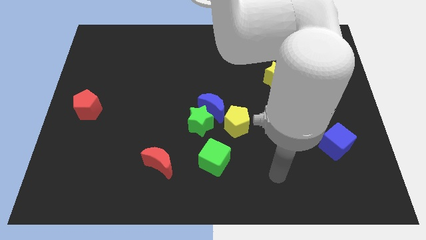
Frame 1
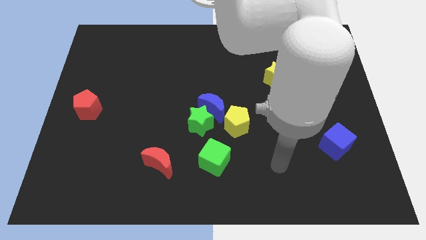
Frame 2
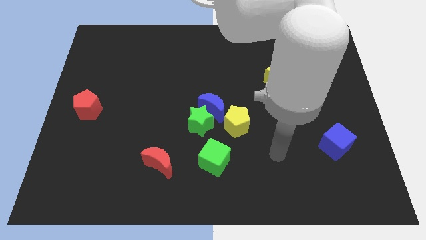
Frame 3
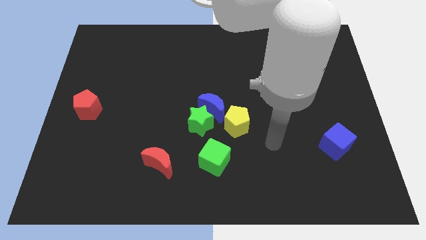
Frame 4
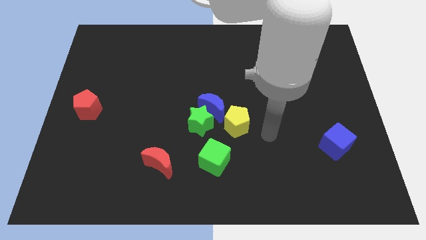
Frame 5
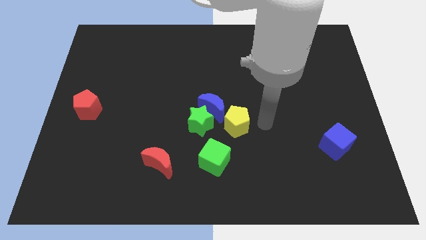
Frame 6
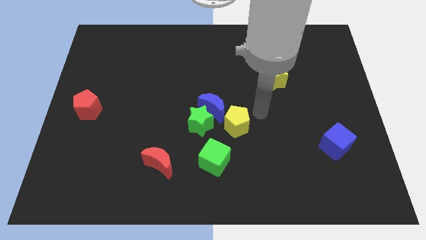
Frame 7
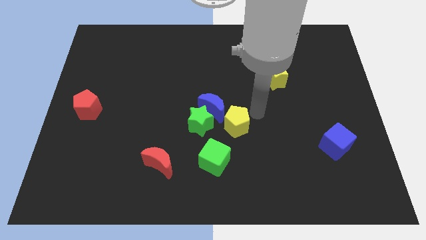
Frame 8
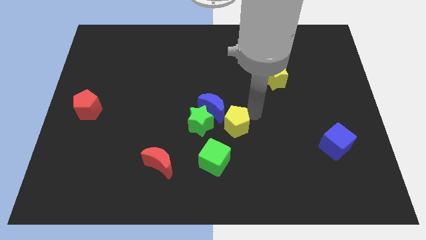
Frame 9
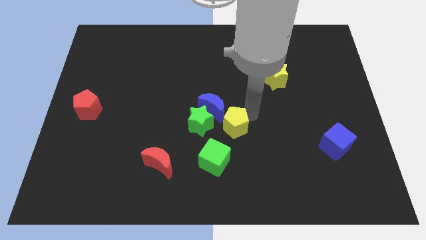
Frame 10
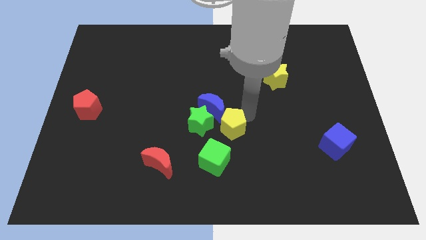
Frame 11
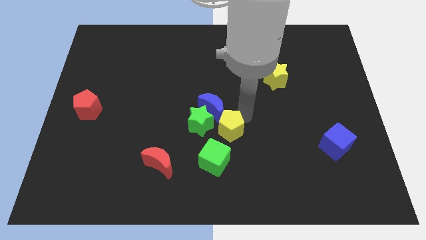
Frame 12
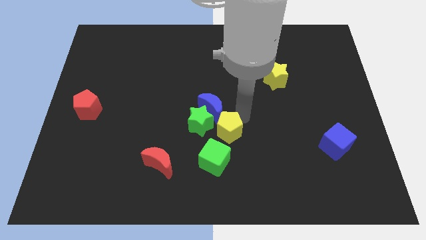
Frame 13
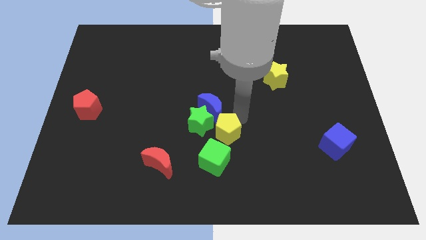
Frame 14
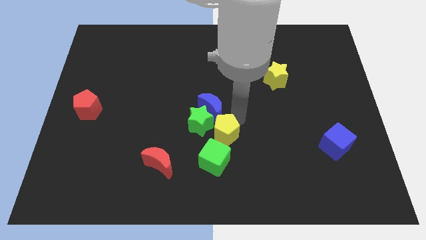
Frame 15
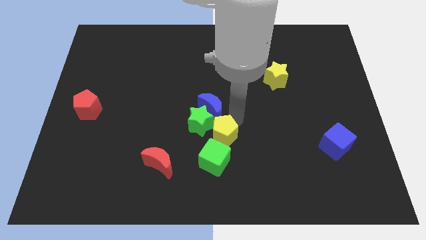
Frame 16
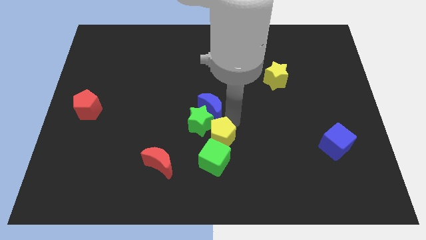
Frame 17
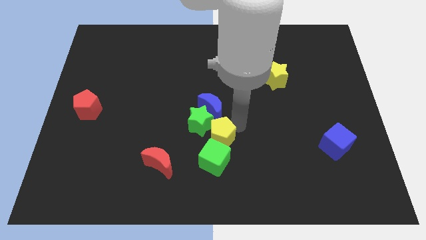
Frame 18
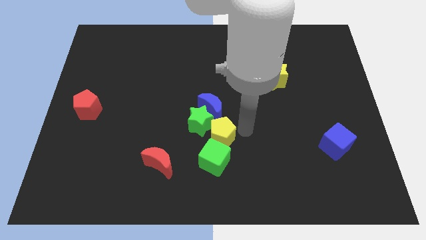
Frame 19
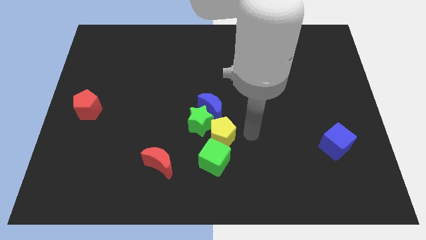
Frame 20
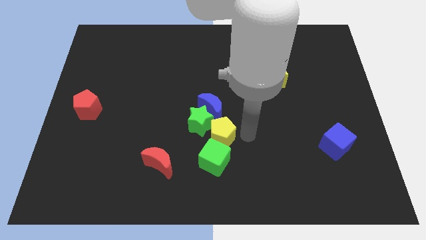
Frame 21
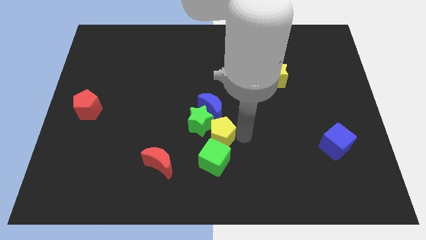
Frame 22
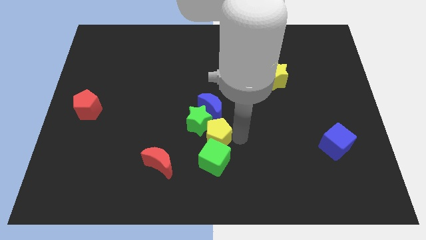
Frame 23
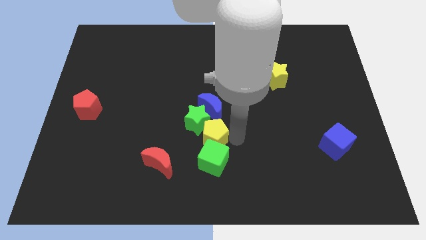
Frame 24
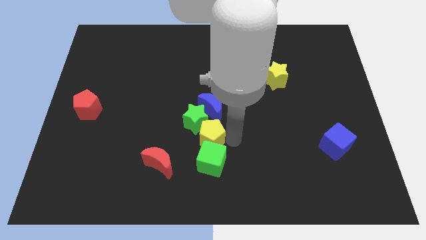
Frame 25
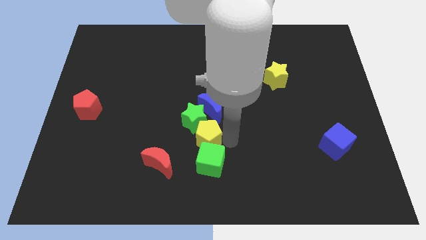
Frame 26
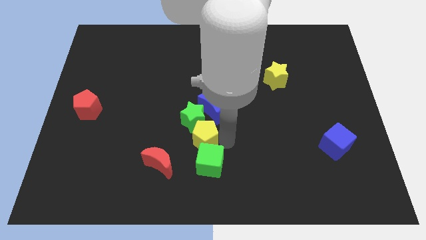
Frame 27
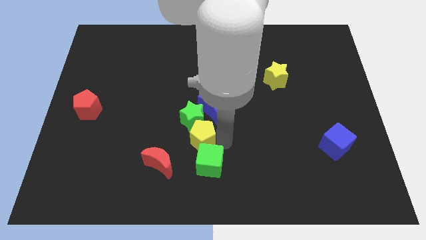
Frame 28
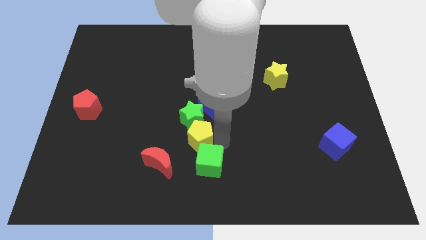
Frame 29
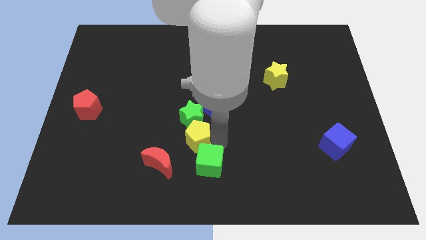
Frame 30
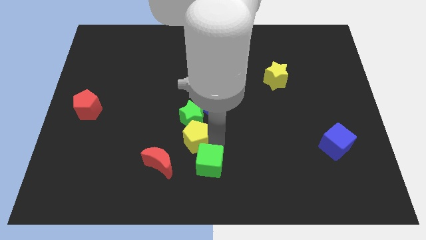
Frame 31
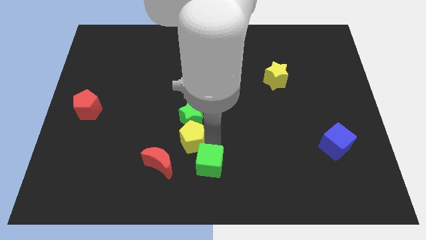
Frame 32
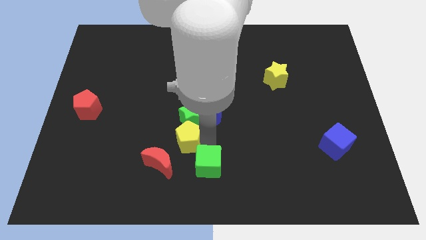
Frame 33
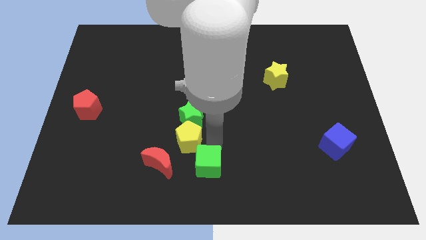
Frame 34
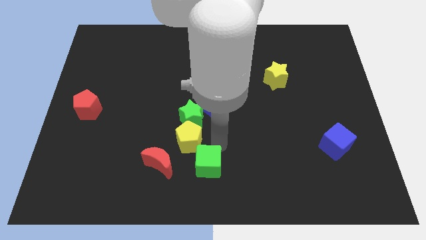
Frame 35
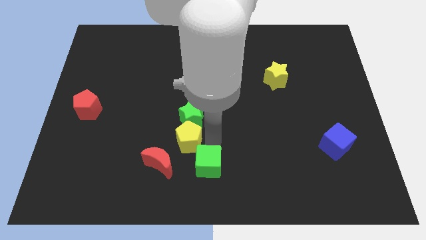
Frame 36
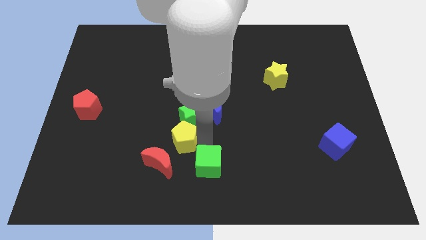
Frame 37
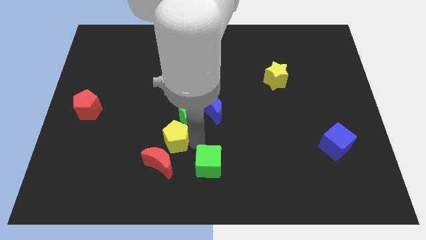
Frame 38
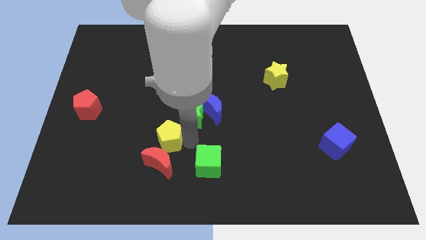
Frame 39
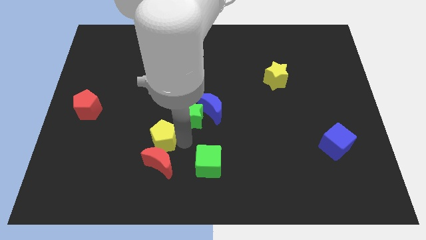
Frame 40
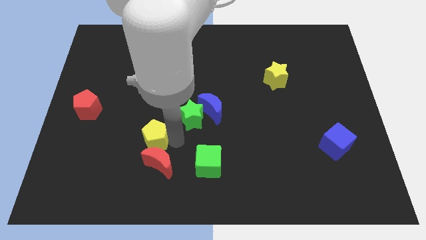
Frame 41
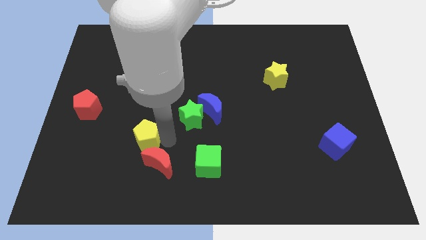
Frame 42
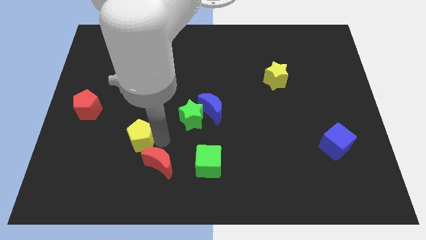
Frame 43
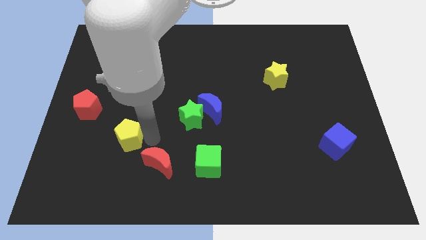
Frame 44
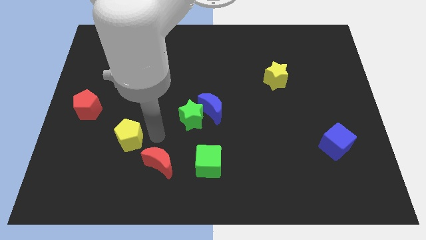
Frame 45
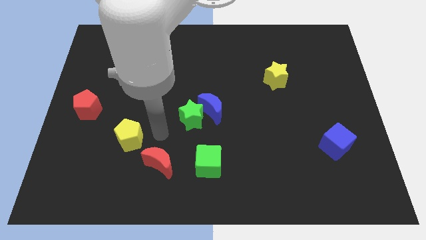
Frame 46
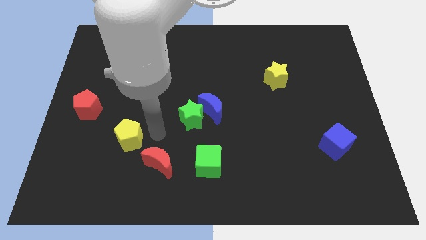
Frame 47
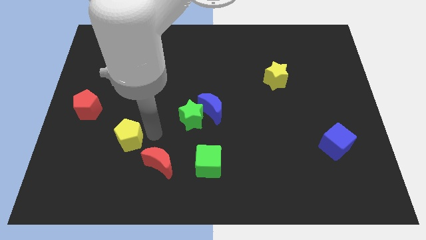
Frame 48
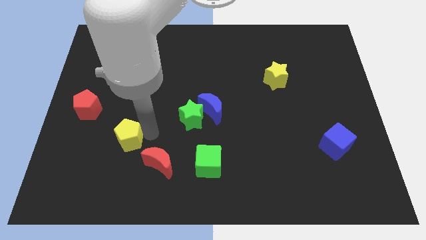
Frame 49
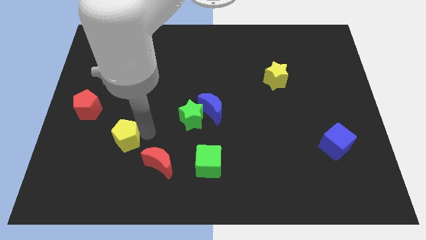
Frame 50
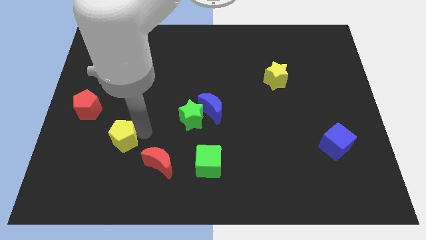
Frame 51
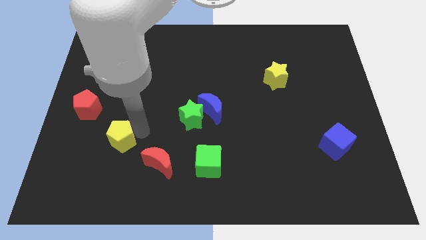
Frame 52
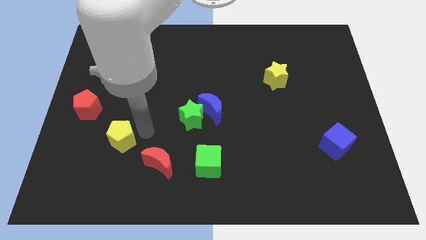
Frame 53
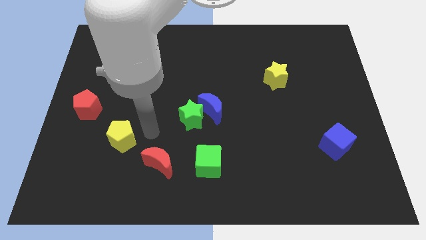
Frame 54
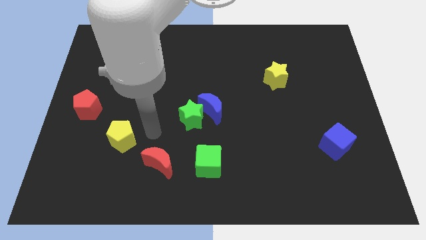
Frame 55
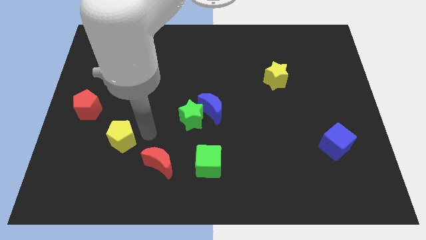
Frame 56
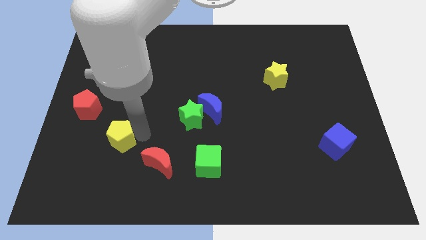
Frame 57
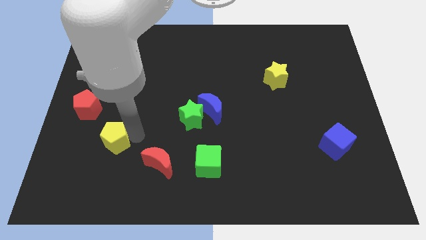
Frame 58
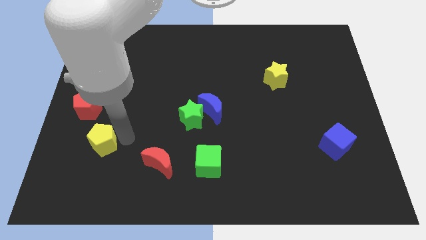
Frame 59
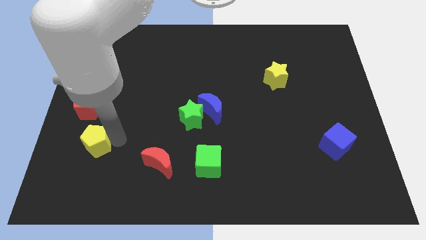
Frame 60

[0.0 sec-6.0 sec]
move the yellow pentagon below the red pentagon

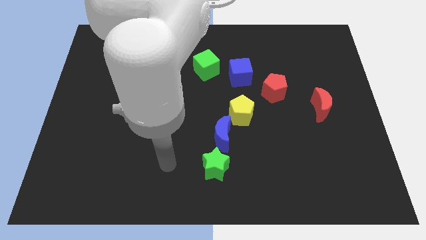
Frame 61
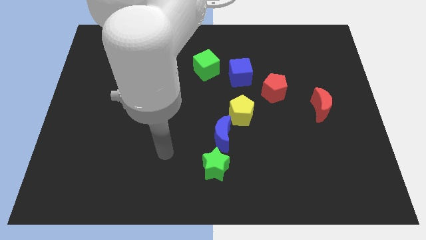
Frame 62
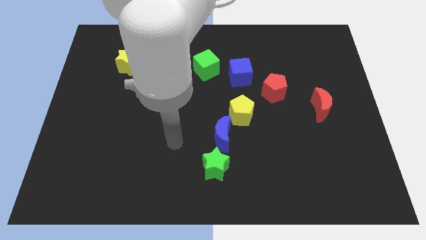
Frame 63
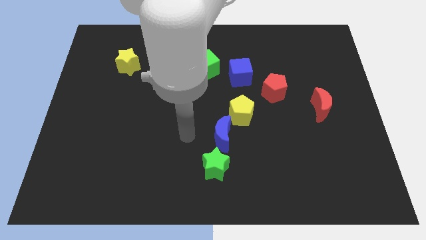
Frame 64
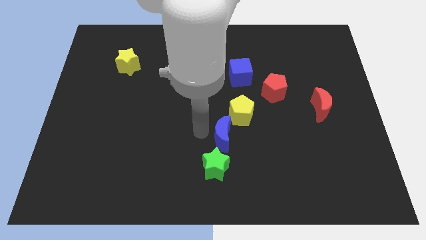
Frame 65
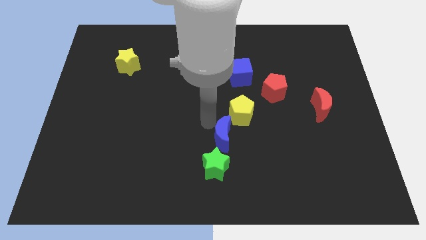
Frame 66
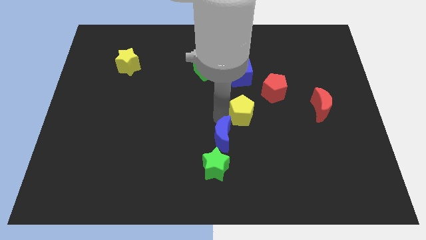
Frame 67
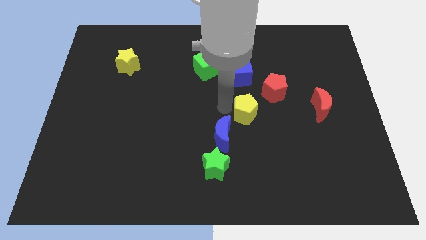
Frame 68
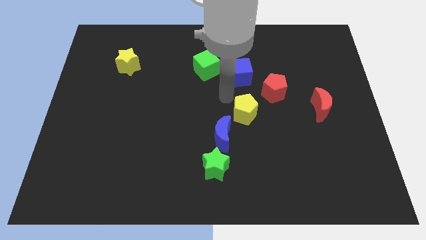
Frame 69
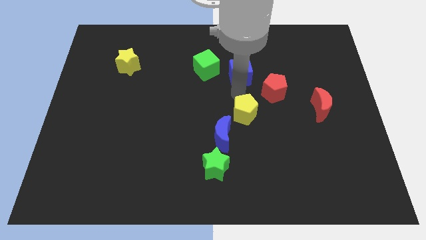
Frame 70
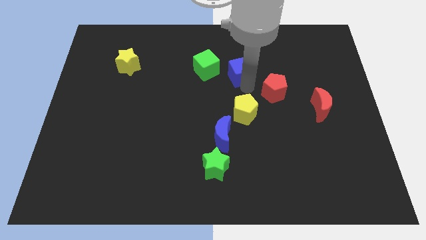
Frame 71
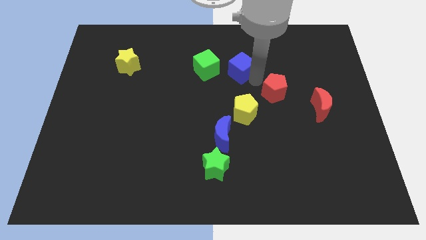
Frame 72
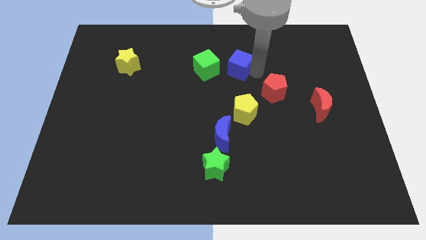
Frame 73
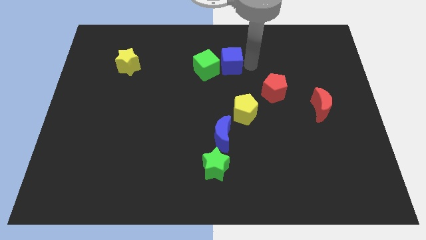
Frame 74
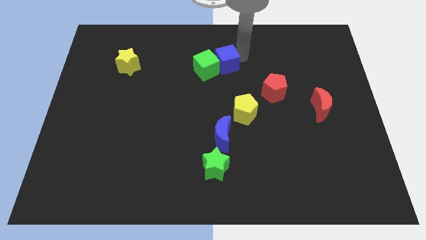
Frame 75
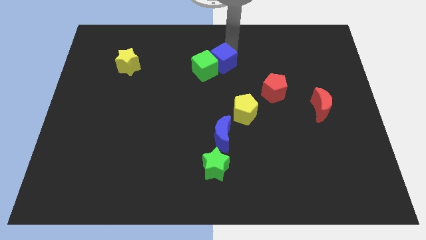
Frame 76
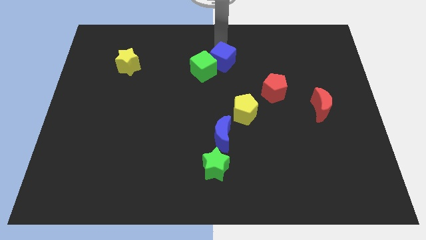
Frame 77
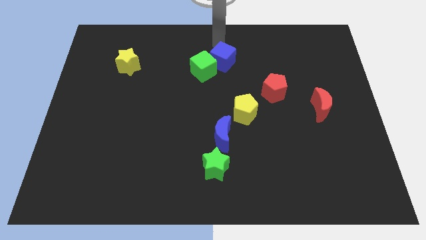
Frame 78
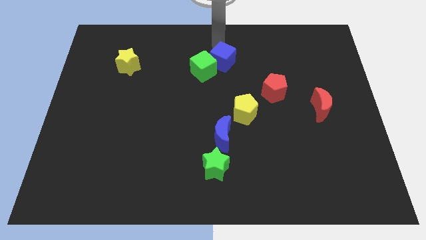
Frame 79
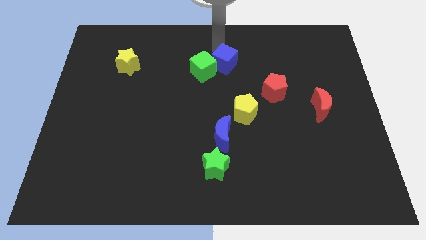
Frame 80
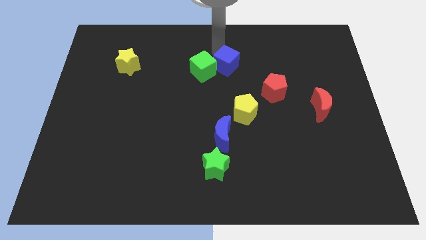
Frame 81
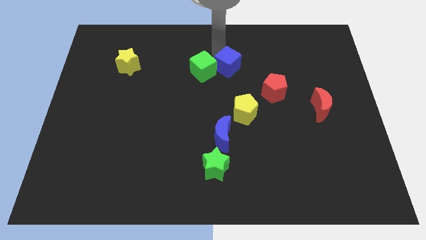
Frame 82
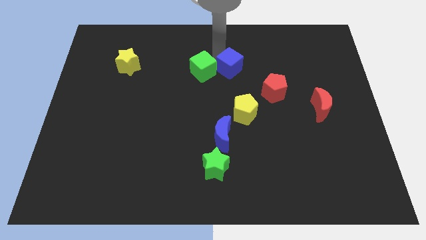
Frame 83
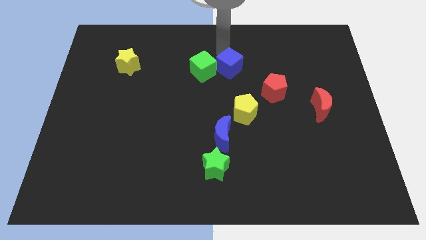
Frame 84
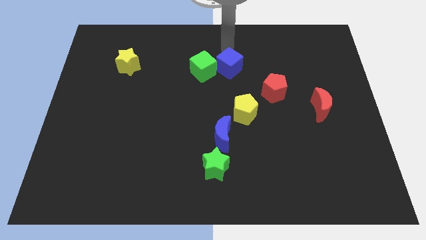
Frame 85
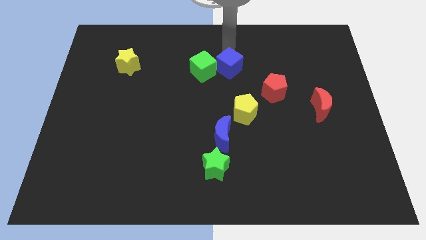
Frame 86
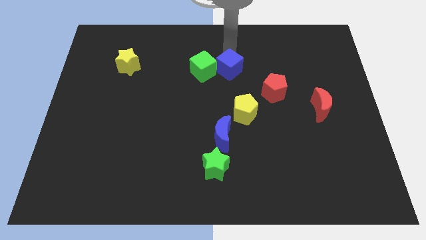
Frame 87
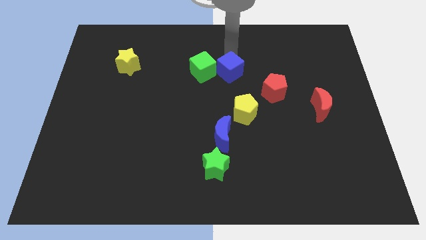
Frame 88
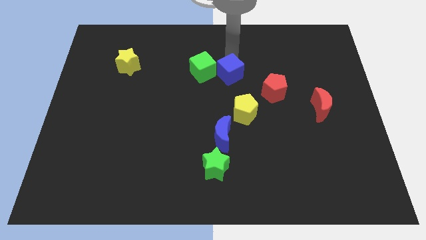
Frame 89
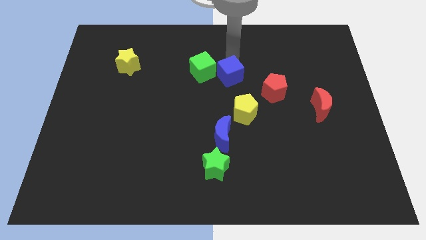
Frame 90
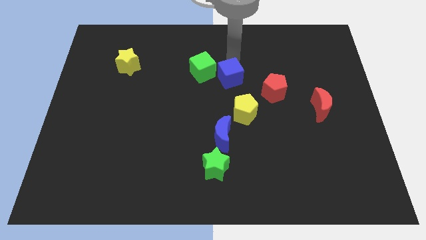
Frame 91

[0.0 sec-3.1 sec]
push the blue cube just left of the red pentagon
